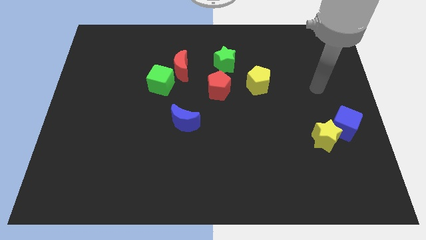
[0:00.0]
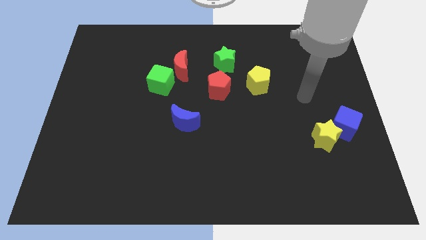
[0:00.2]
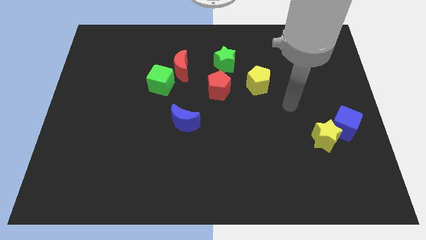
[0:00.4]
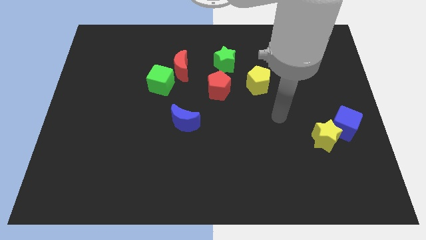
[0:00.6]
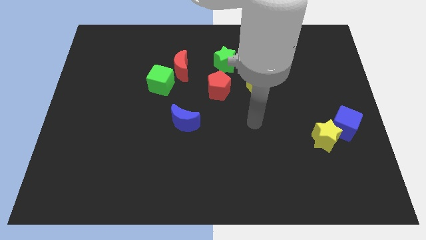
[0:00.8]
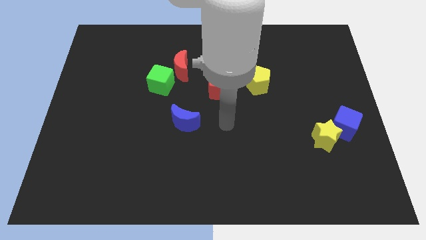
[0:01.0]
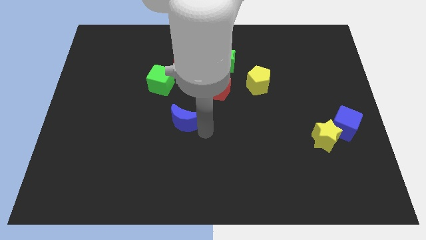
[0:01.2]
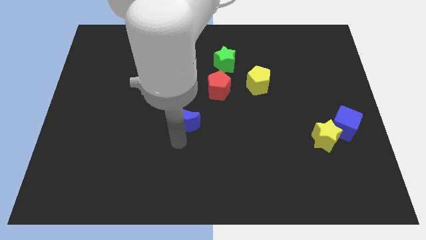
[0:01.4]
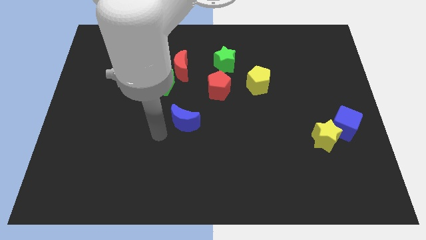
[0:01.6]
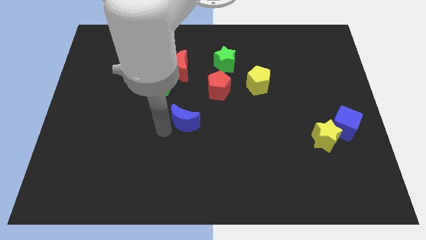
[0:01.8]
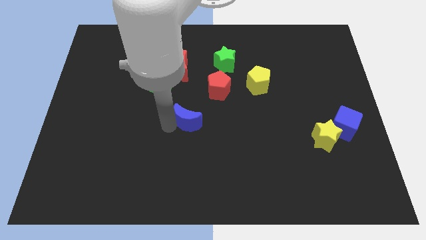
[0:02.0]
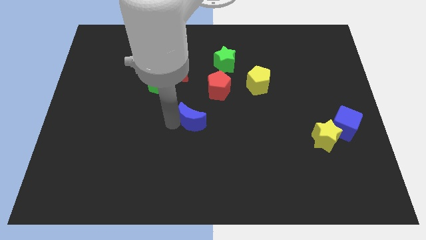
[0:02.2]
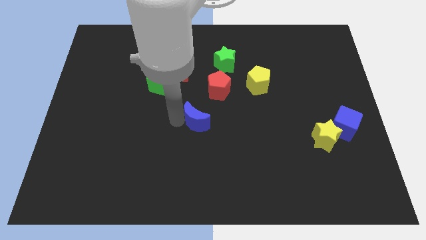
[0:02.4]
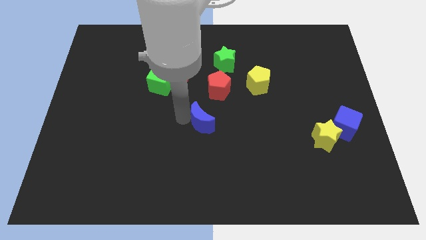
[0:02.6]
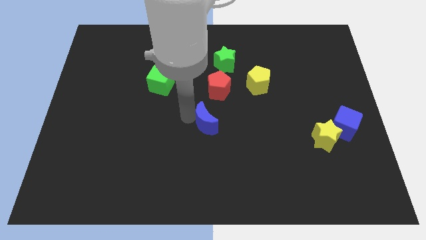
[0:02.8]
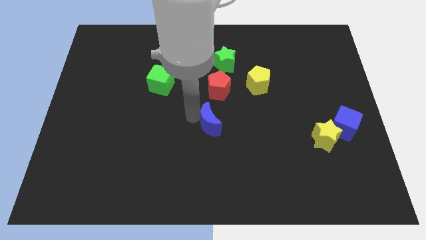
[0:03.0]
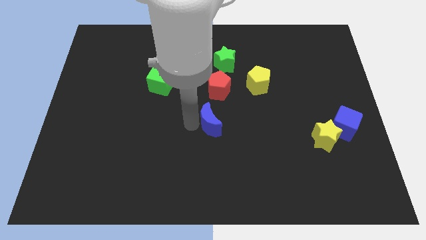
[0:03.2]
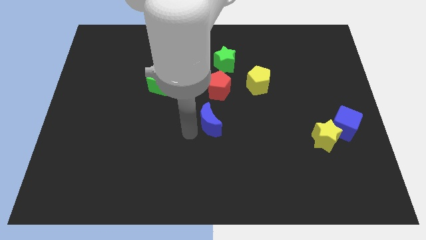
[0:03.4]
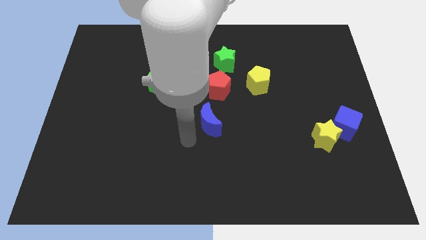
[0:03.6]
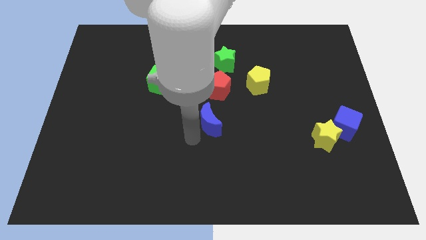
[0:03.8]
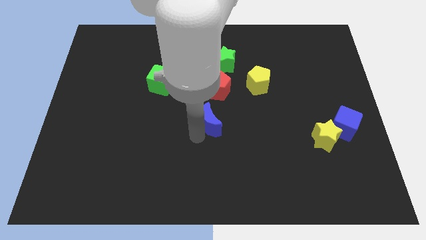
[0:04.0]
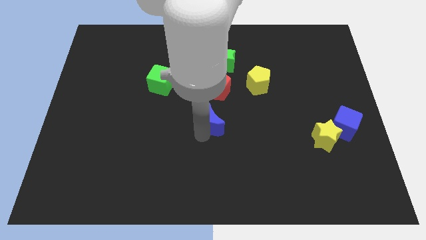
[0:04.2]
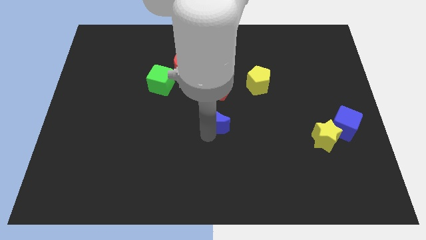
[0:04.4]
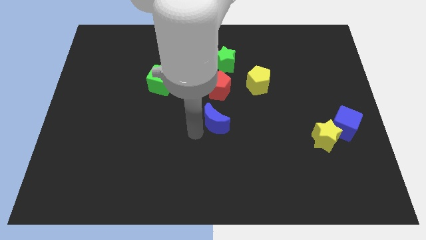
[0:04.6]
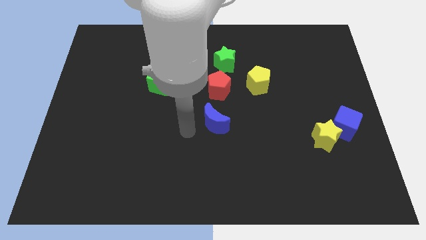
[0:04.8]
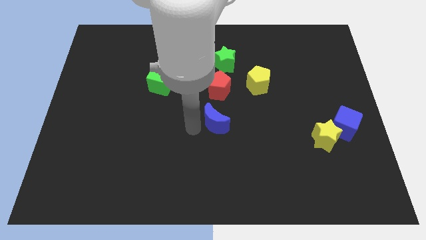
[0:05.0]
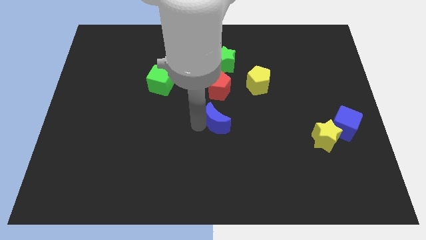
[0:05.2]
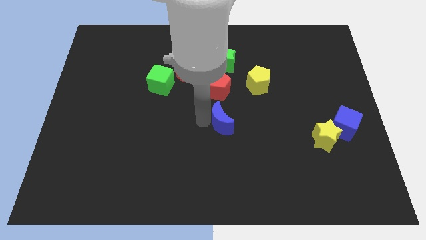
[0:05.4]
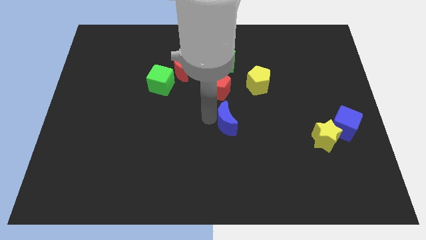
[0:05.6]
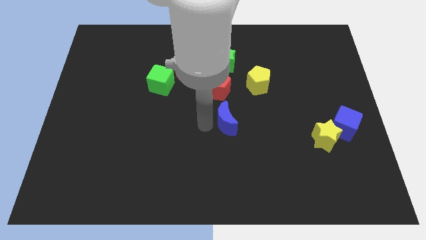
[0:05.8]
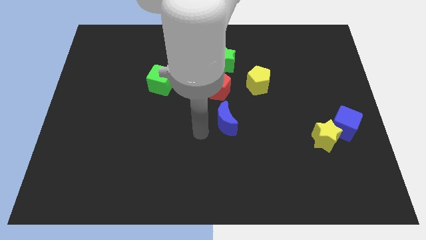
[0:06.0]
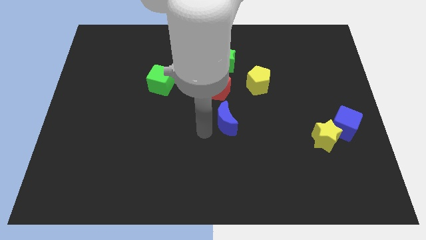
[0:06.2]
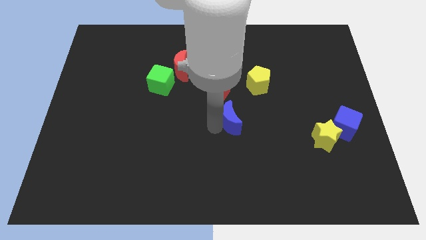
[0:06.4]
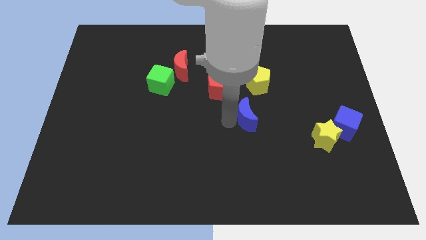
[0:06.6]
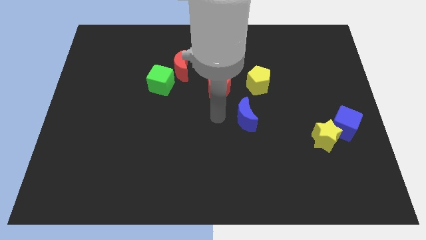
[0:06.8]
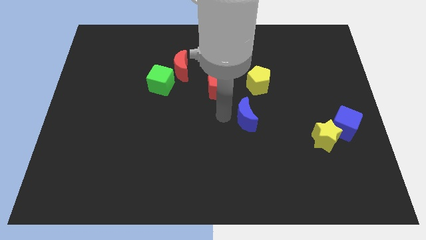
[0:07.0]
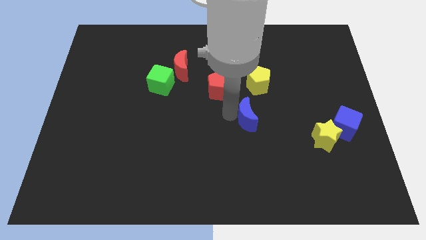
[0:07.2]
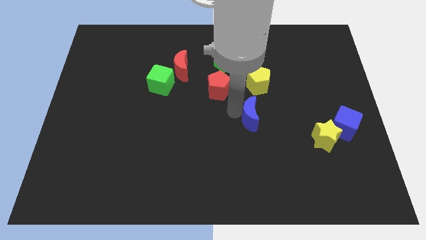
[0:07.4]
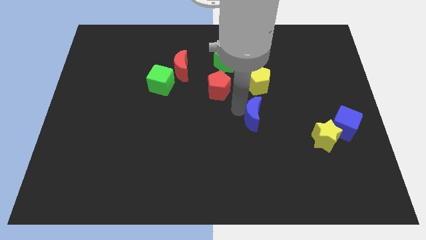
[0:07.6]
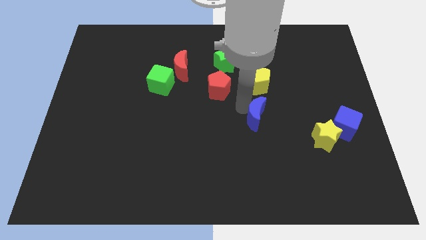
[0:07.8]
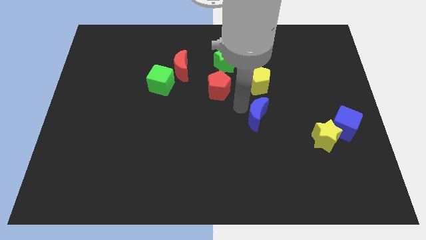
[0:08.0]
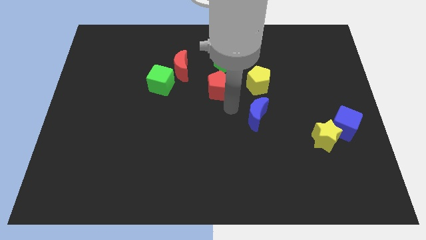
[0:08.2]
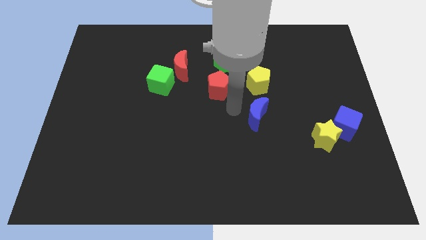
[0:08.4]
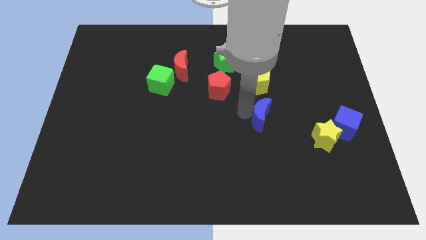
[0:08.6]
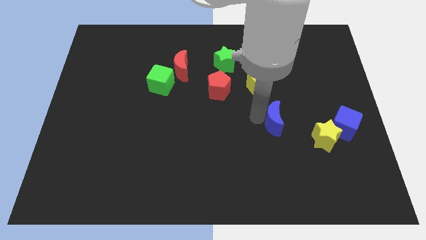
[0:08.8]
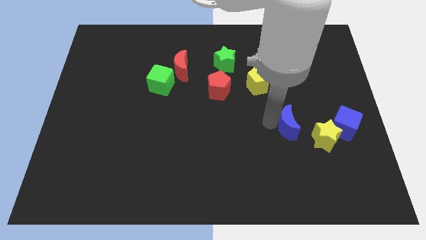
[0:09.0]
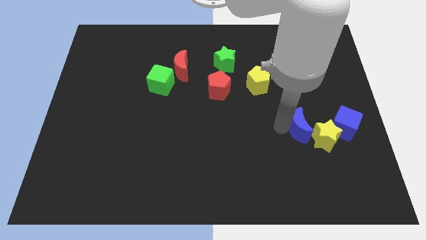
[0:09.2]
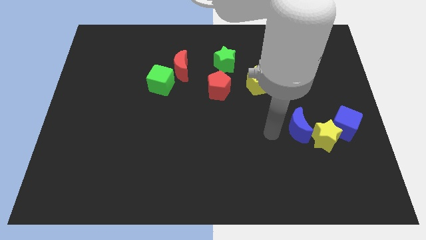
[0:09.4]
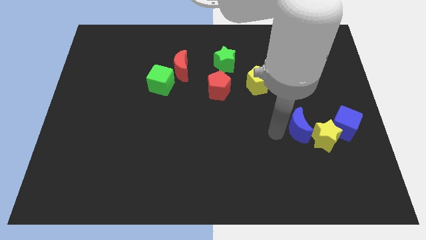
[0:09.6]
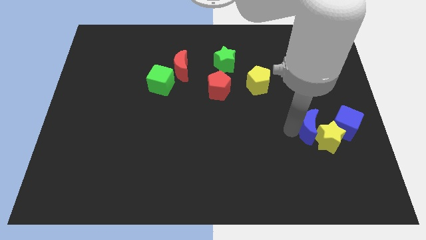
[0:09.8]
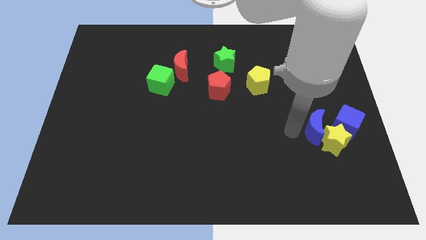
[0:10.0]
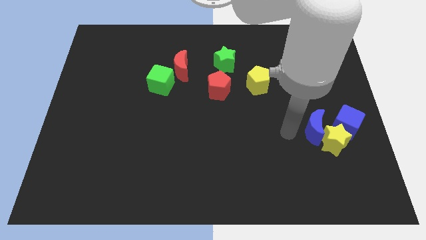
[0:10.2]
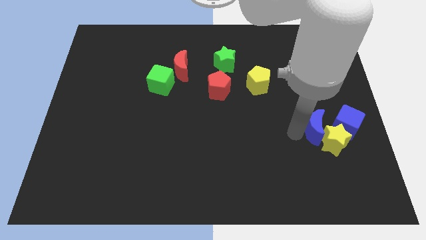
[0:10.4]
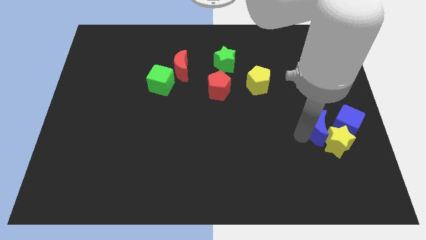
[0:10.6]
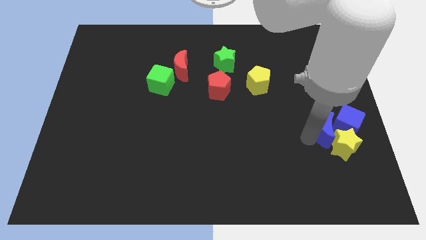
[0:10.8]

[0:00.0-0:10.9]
slide the blue moon next to the blue cube

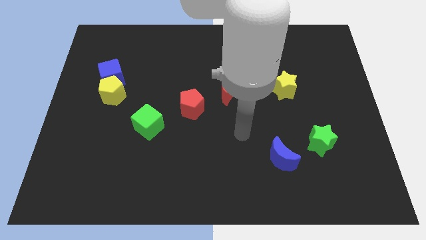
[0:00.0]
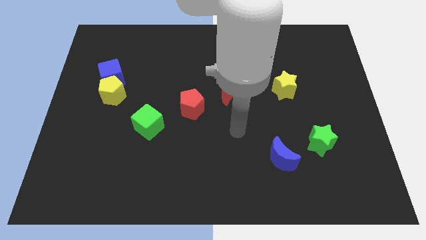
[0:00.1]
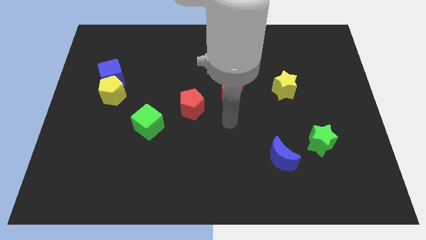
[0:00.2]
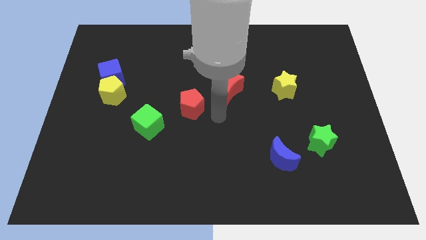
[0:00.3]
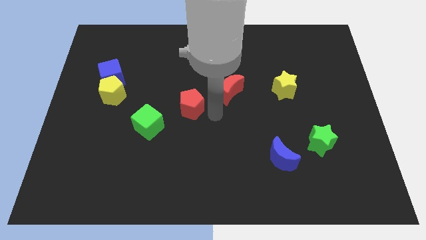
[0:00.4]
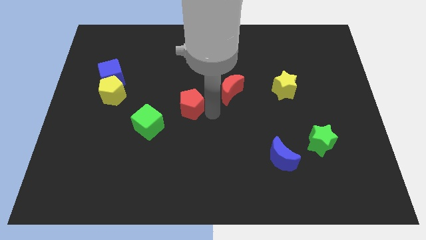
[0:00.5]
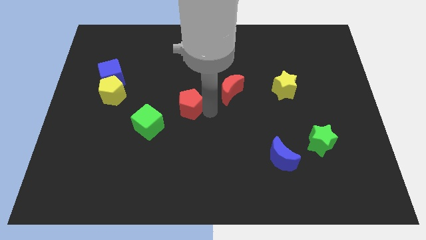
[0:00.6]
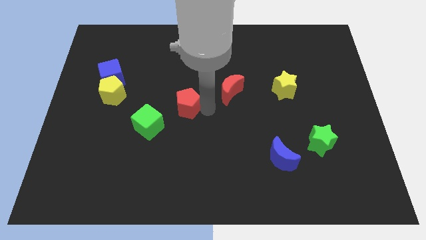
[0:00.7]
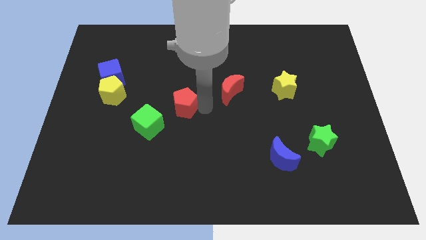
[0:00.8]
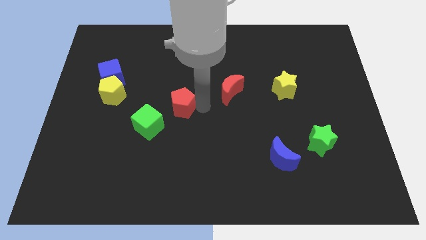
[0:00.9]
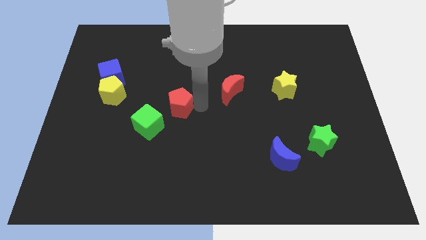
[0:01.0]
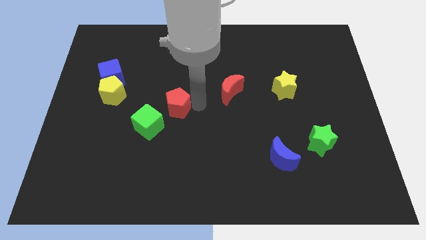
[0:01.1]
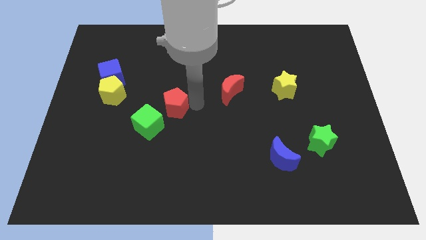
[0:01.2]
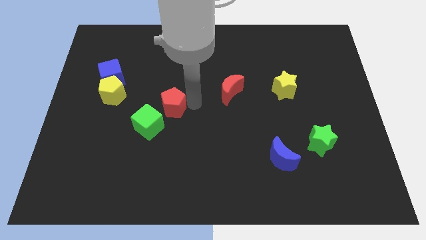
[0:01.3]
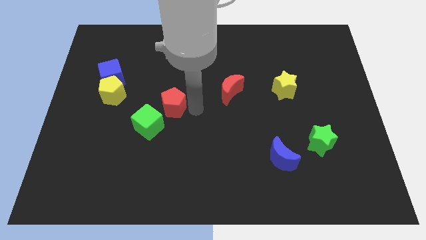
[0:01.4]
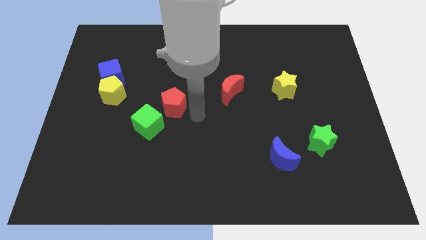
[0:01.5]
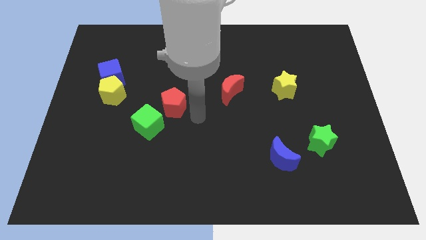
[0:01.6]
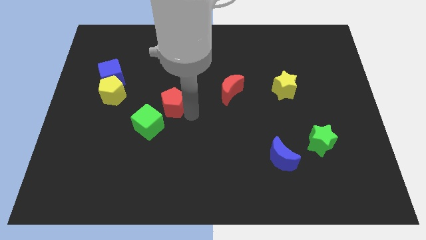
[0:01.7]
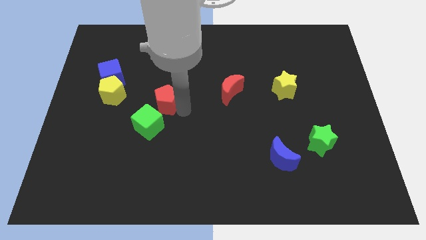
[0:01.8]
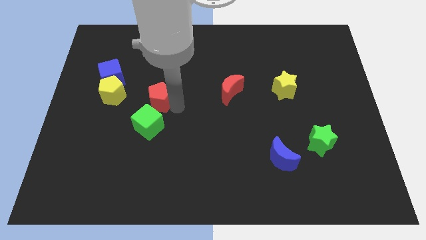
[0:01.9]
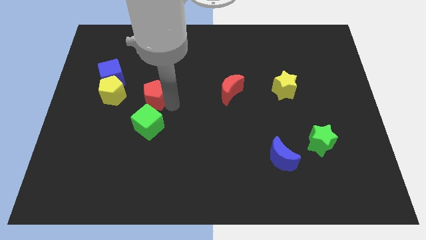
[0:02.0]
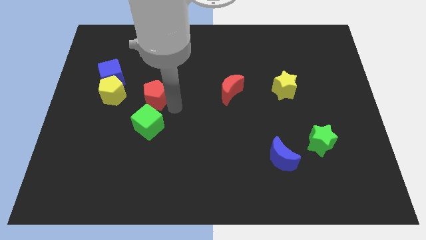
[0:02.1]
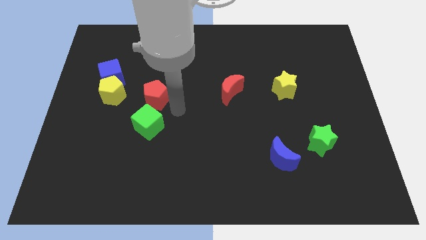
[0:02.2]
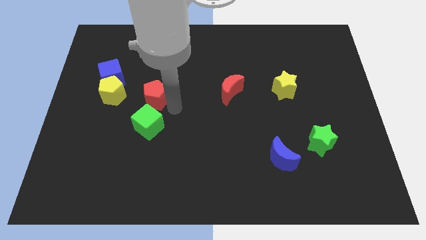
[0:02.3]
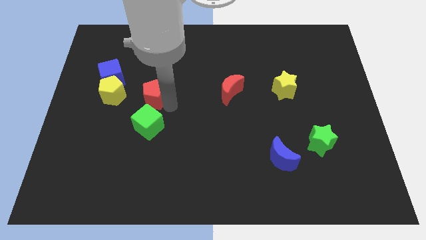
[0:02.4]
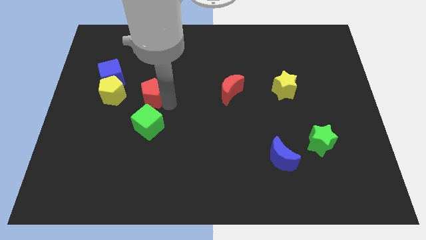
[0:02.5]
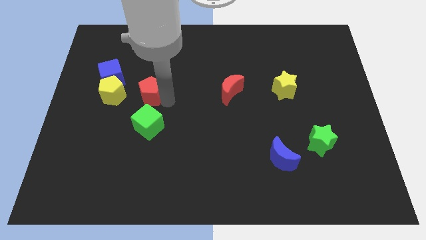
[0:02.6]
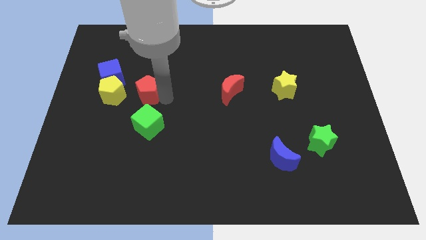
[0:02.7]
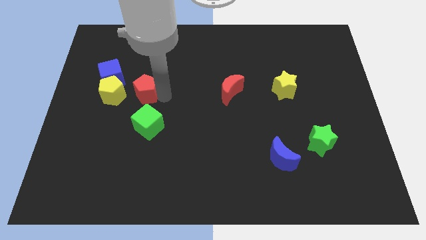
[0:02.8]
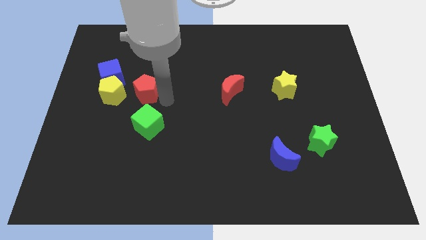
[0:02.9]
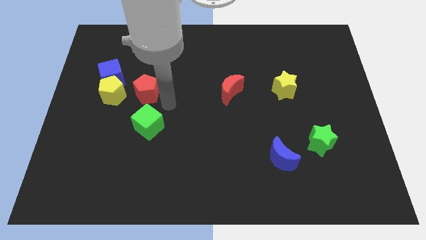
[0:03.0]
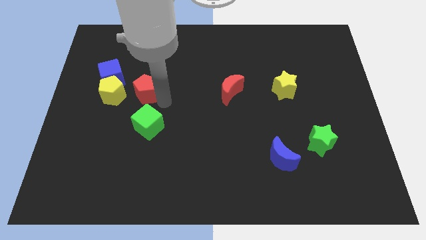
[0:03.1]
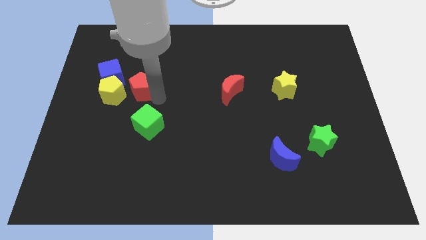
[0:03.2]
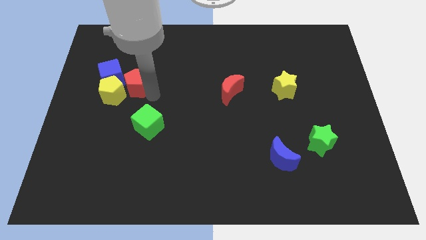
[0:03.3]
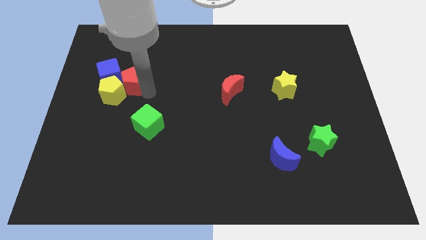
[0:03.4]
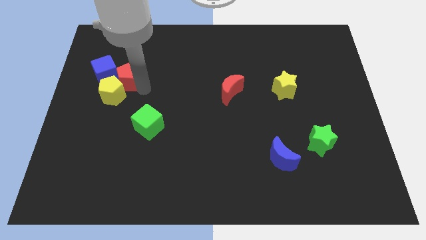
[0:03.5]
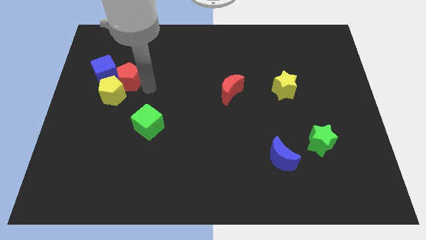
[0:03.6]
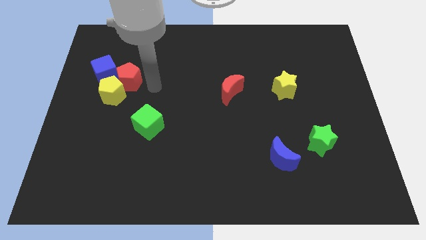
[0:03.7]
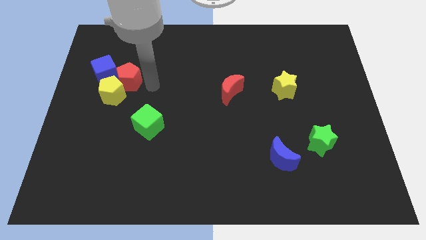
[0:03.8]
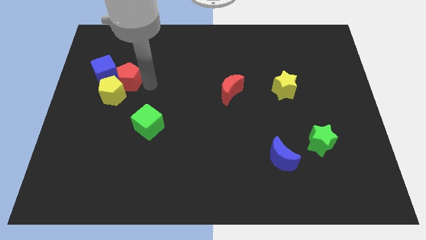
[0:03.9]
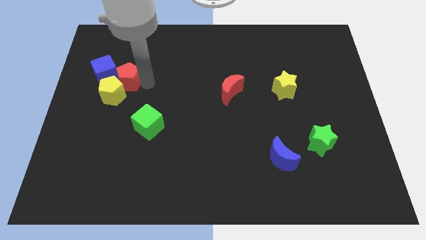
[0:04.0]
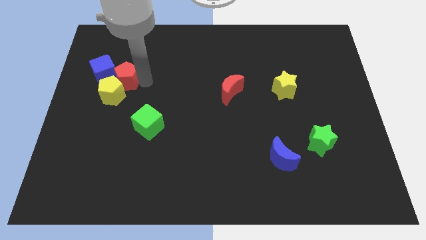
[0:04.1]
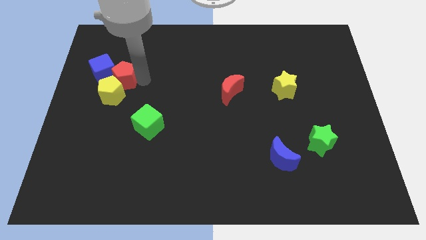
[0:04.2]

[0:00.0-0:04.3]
put the red pentagon next to the blue cube
